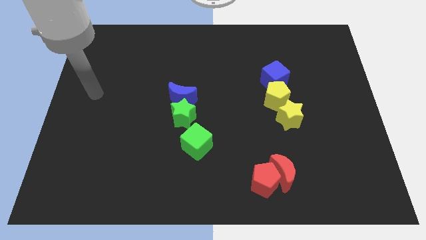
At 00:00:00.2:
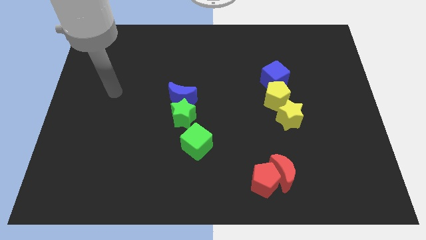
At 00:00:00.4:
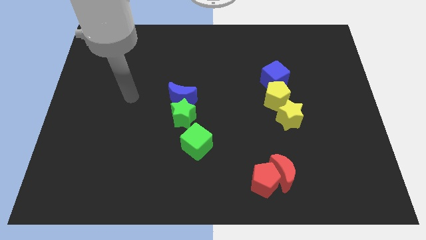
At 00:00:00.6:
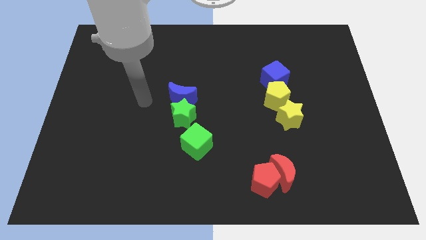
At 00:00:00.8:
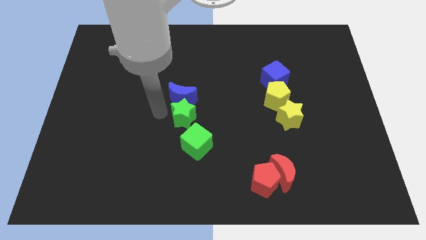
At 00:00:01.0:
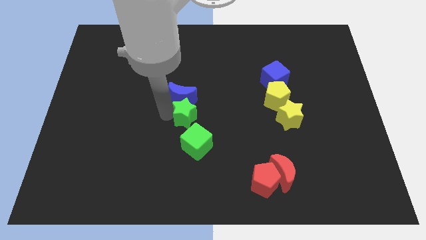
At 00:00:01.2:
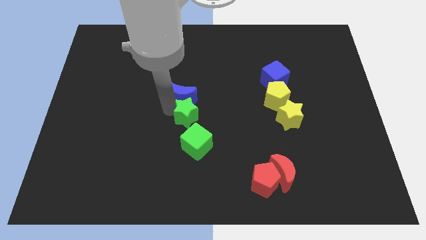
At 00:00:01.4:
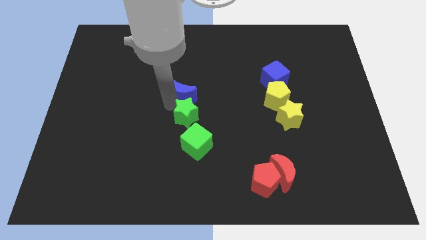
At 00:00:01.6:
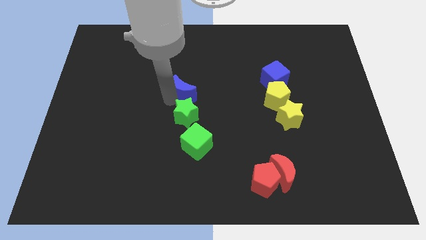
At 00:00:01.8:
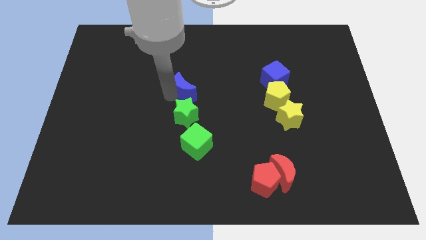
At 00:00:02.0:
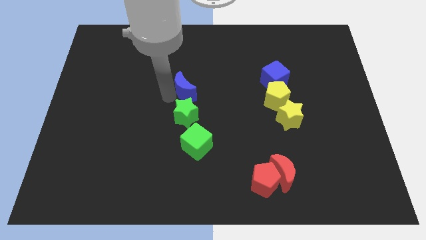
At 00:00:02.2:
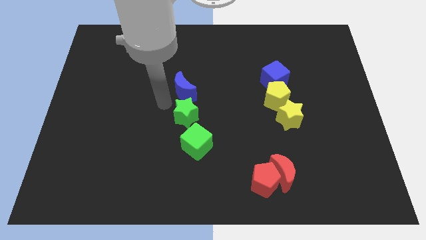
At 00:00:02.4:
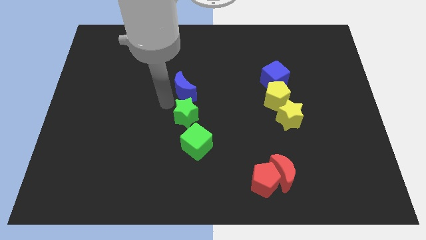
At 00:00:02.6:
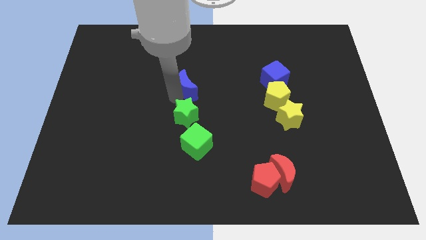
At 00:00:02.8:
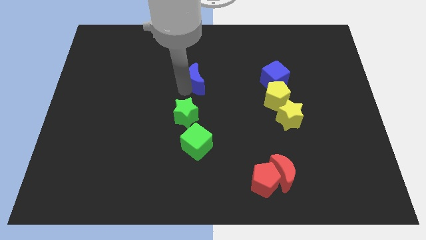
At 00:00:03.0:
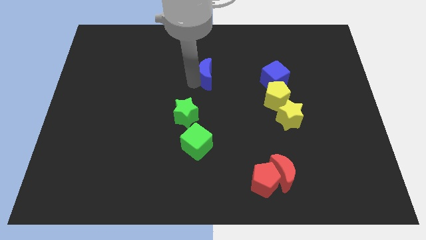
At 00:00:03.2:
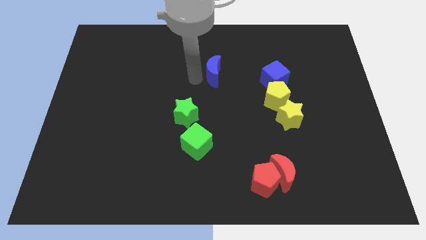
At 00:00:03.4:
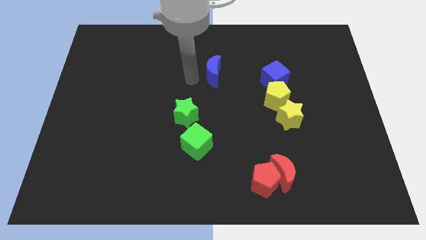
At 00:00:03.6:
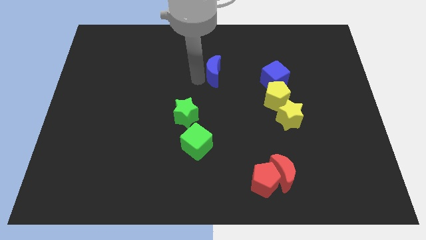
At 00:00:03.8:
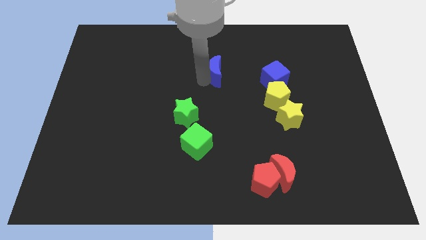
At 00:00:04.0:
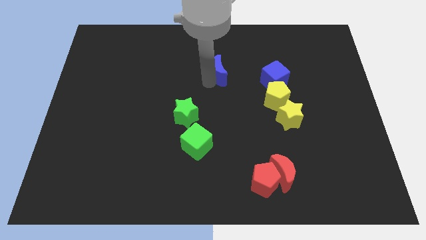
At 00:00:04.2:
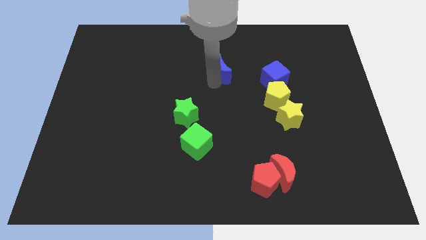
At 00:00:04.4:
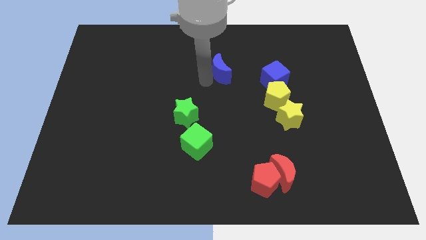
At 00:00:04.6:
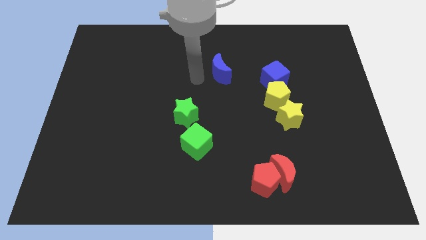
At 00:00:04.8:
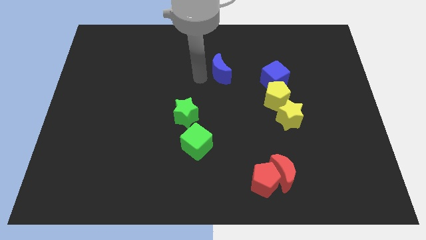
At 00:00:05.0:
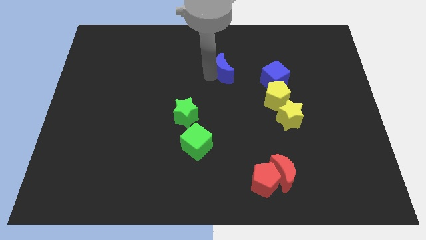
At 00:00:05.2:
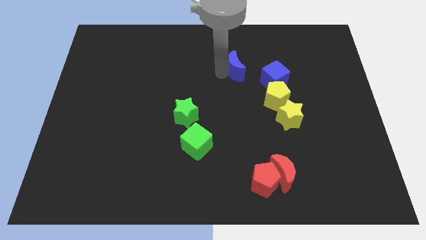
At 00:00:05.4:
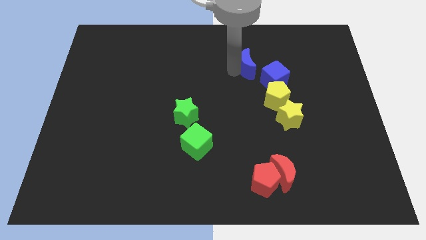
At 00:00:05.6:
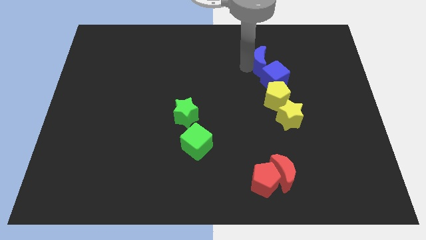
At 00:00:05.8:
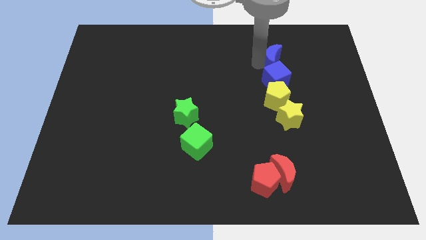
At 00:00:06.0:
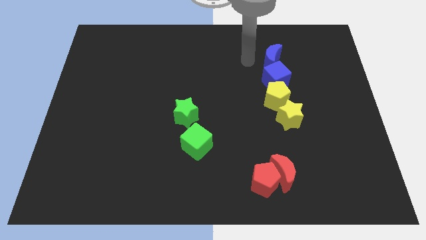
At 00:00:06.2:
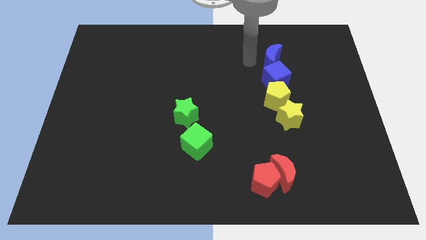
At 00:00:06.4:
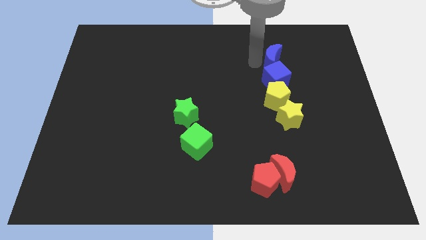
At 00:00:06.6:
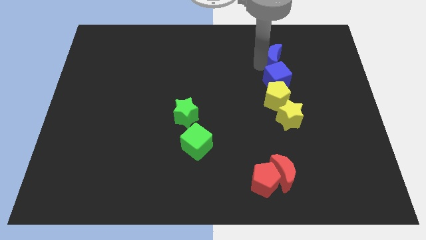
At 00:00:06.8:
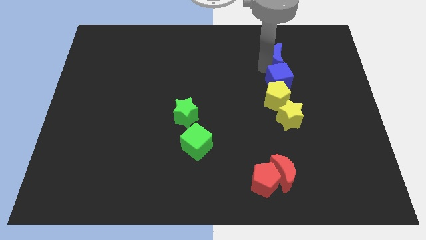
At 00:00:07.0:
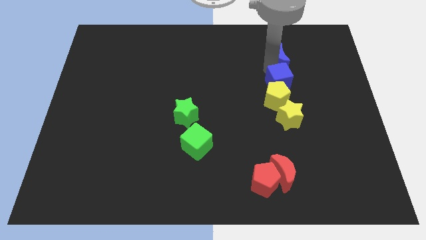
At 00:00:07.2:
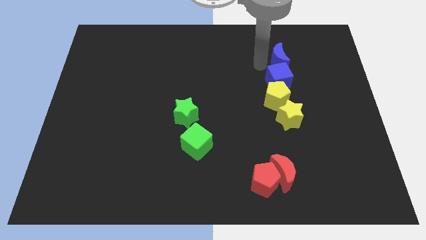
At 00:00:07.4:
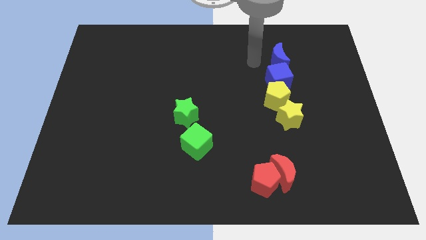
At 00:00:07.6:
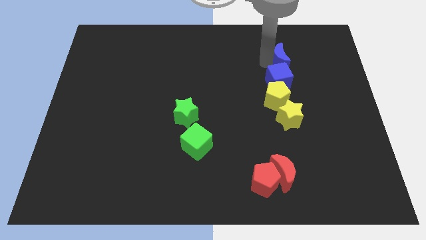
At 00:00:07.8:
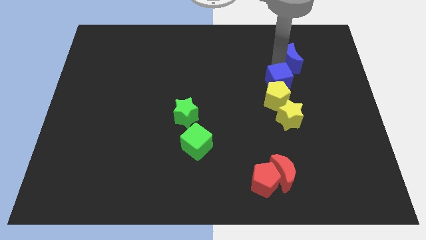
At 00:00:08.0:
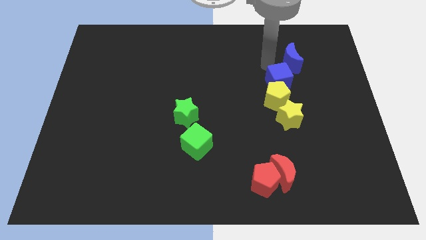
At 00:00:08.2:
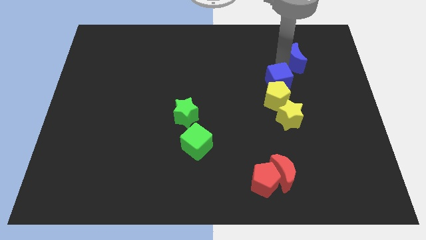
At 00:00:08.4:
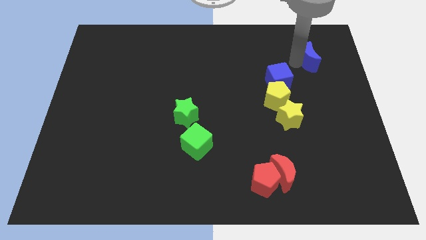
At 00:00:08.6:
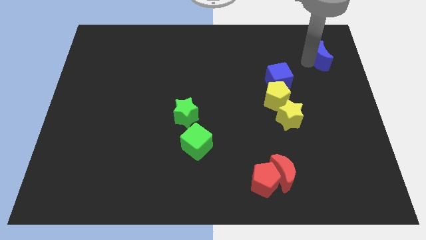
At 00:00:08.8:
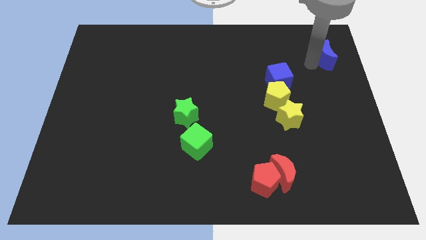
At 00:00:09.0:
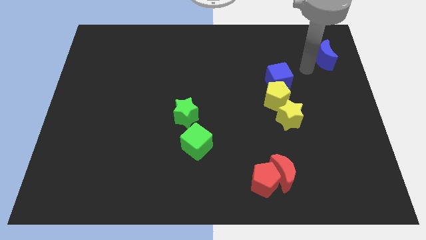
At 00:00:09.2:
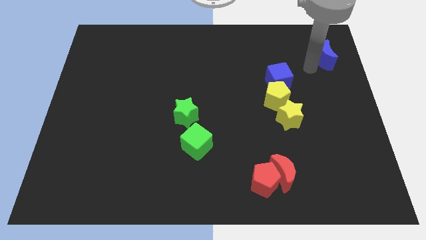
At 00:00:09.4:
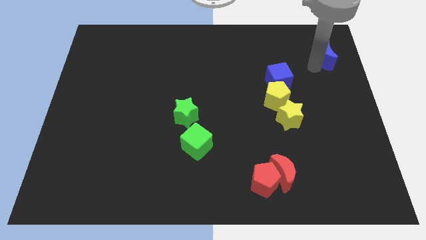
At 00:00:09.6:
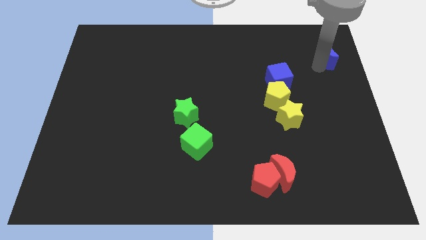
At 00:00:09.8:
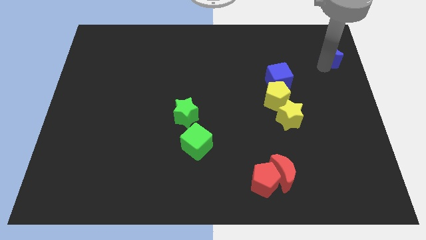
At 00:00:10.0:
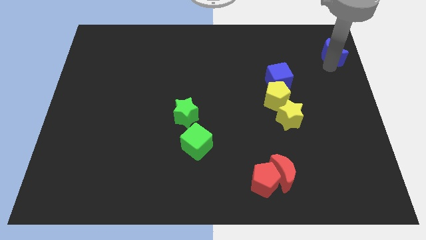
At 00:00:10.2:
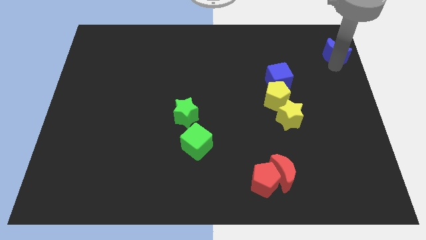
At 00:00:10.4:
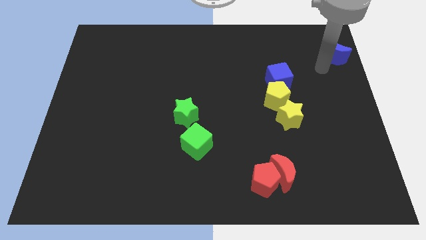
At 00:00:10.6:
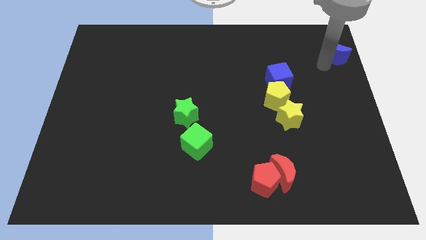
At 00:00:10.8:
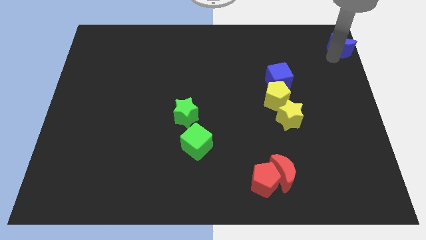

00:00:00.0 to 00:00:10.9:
move the blue moon to the upper right corner
